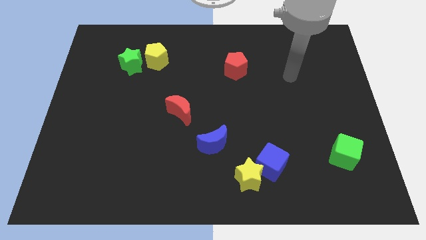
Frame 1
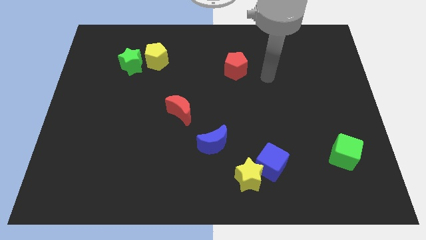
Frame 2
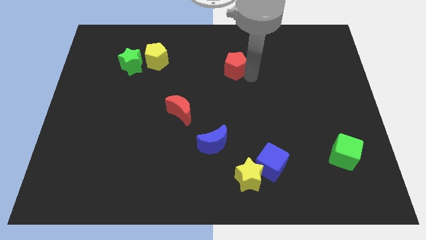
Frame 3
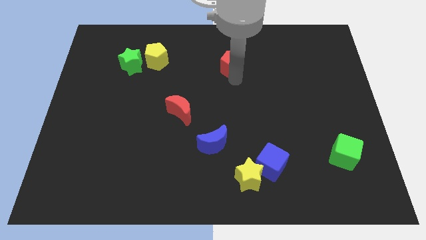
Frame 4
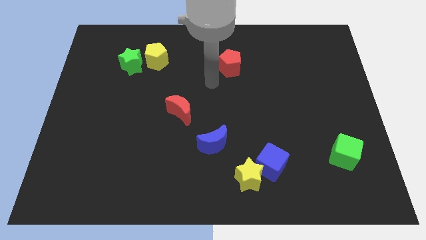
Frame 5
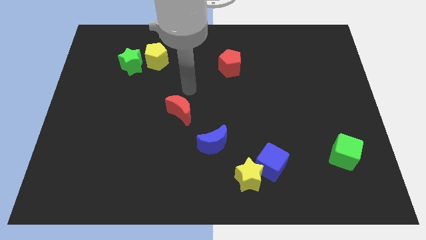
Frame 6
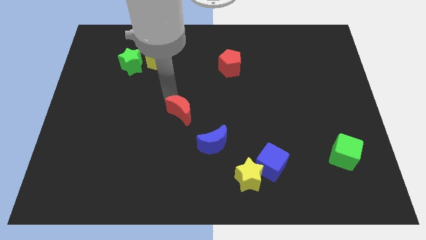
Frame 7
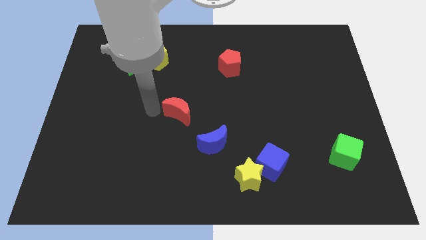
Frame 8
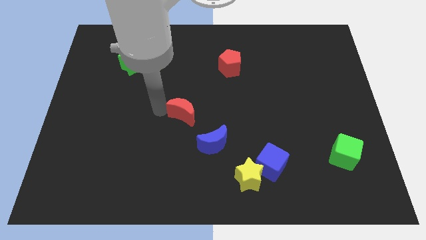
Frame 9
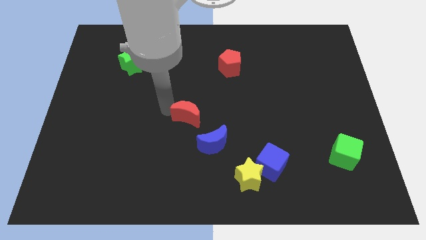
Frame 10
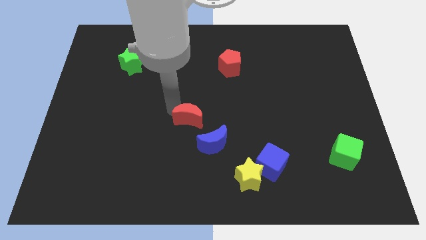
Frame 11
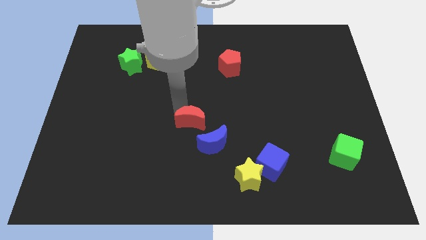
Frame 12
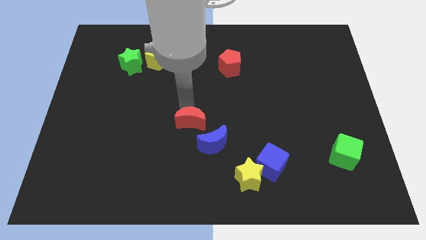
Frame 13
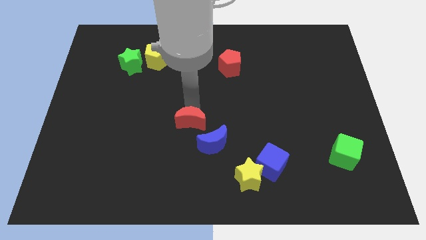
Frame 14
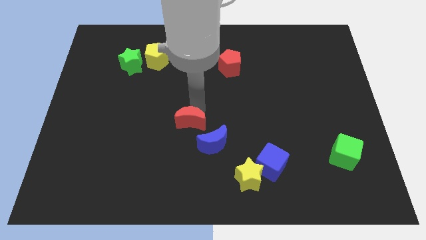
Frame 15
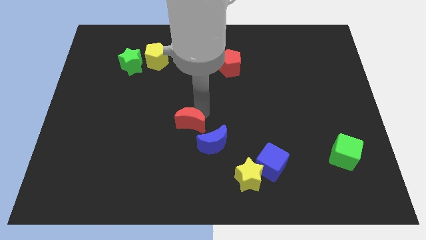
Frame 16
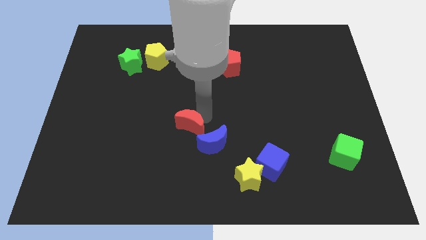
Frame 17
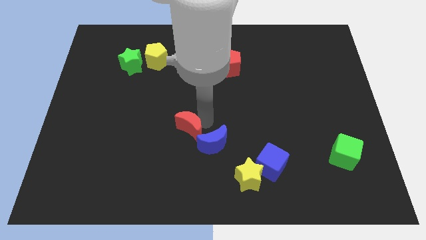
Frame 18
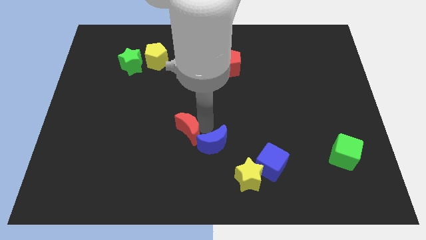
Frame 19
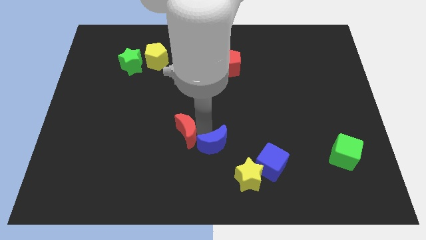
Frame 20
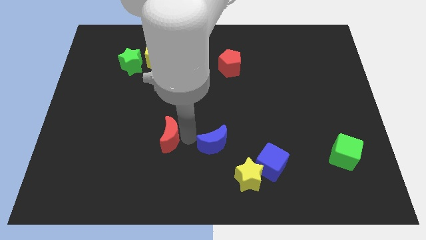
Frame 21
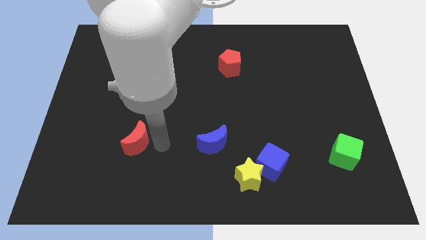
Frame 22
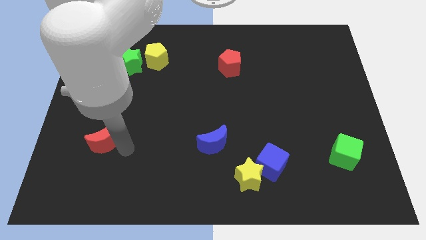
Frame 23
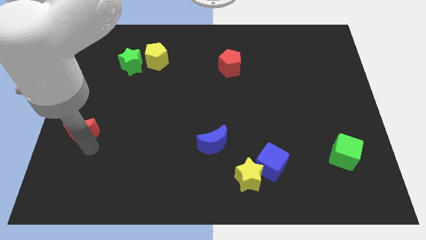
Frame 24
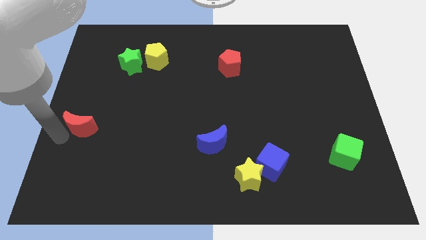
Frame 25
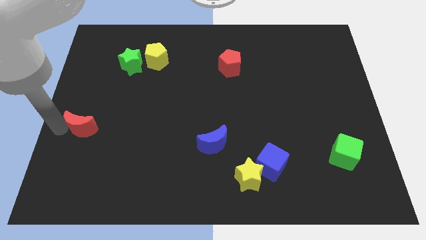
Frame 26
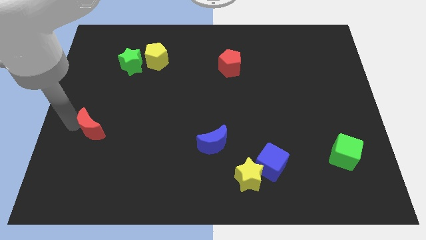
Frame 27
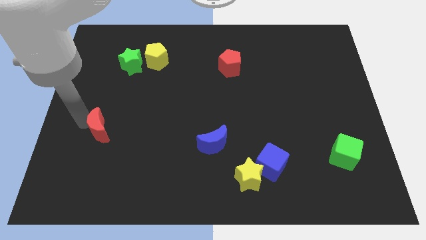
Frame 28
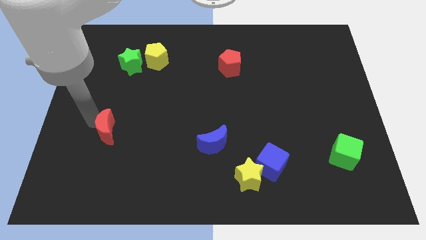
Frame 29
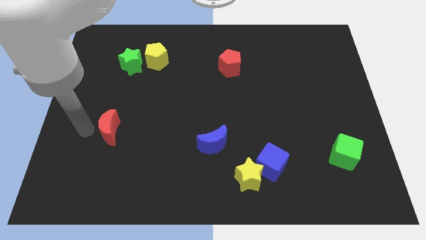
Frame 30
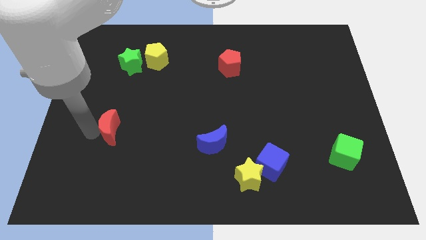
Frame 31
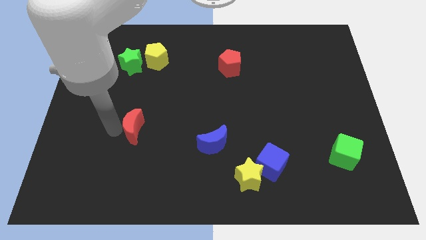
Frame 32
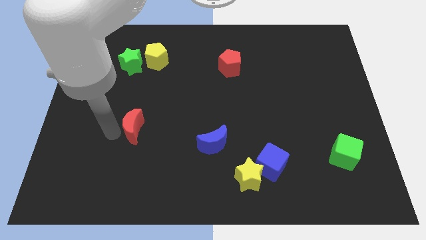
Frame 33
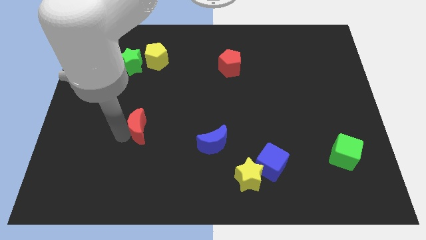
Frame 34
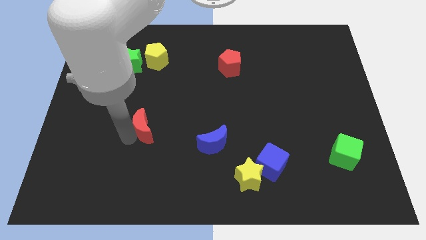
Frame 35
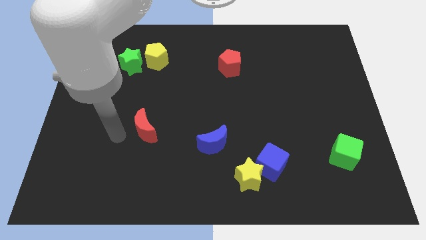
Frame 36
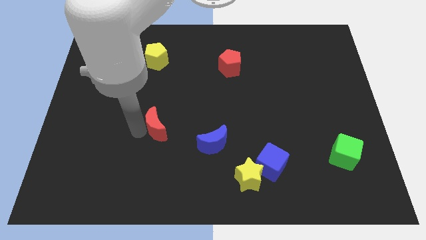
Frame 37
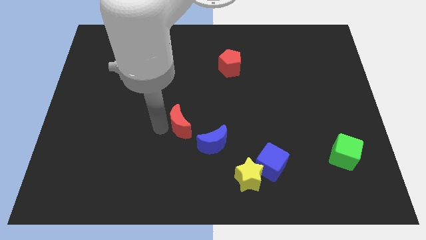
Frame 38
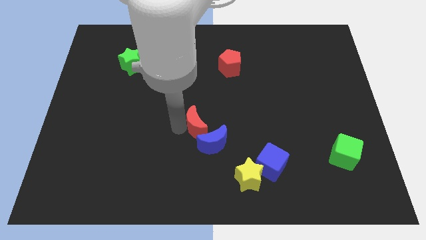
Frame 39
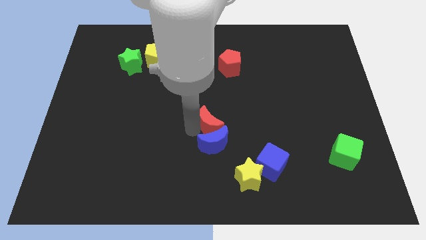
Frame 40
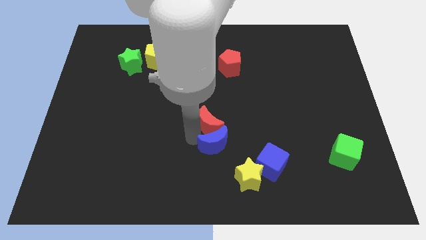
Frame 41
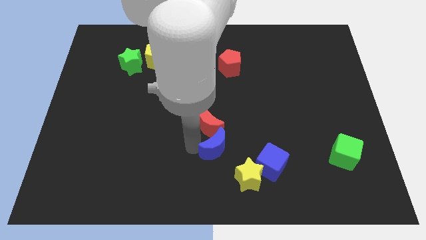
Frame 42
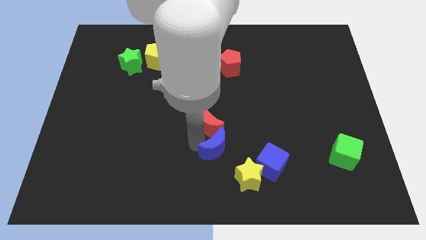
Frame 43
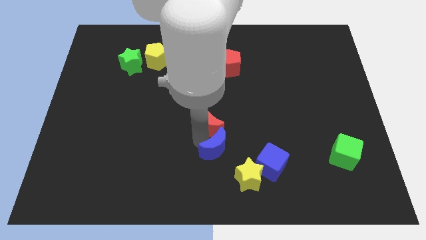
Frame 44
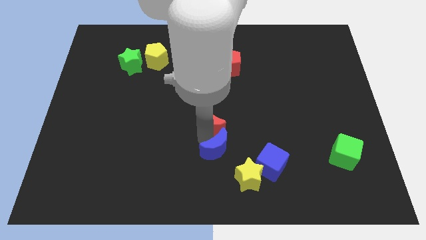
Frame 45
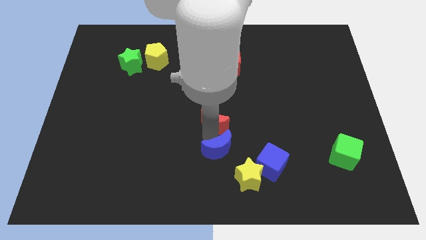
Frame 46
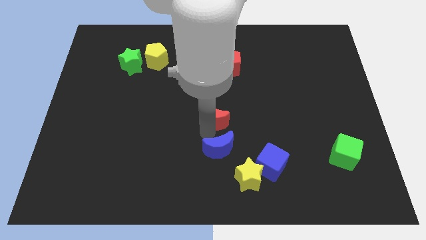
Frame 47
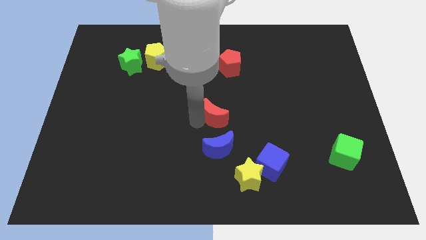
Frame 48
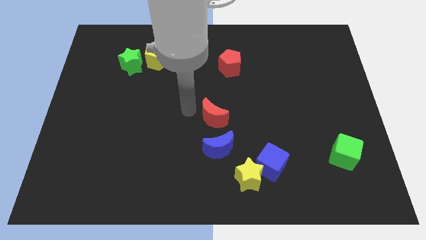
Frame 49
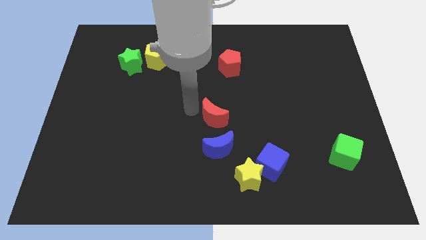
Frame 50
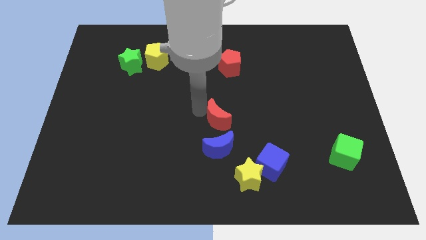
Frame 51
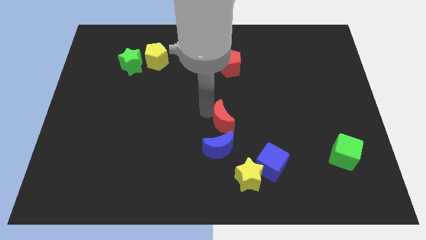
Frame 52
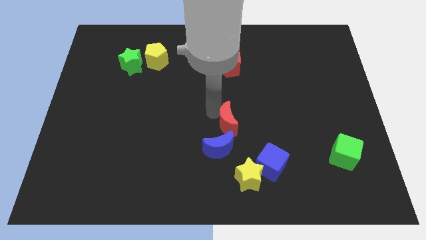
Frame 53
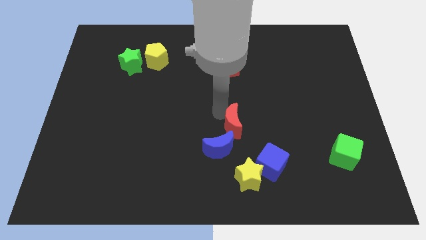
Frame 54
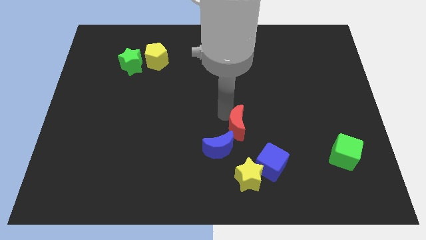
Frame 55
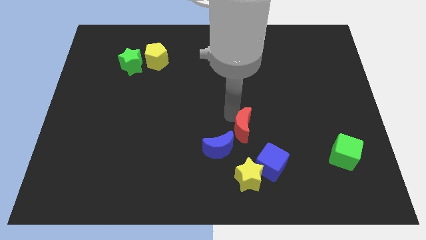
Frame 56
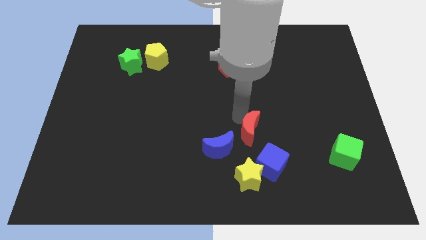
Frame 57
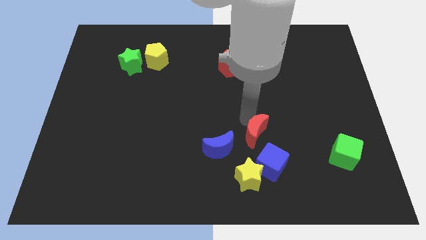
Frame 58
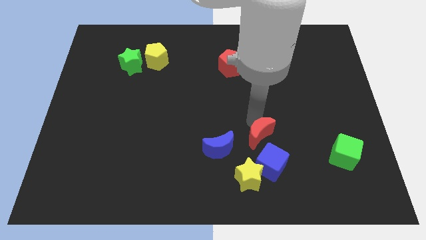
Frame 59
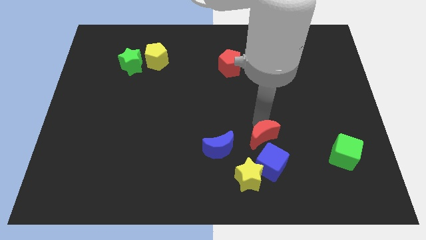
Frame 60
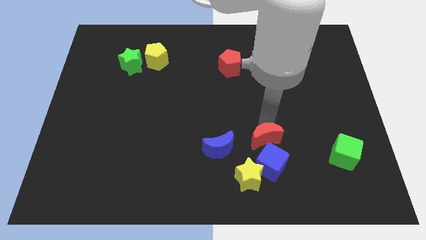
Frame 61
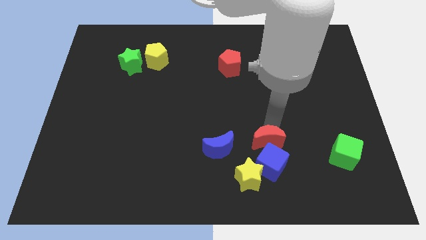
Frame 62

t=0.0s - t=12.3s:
push the red moon to the blue cube

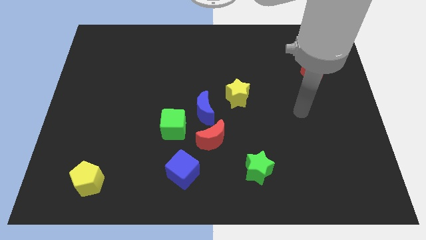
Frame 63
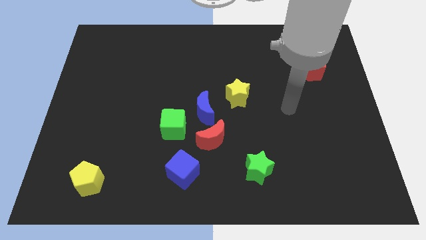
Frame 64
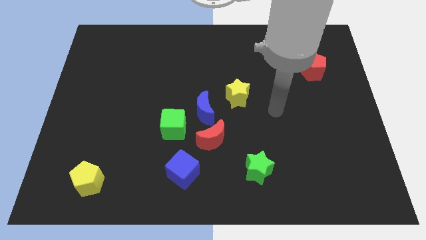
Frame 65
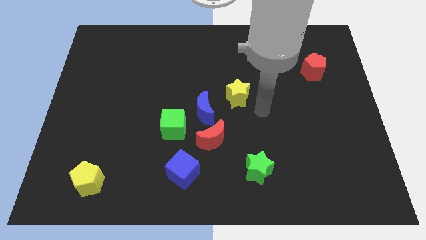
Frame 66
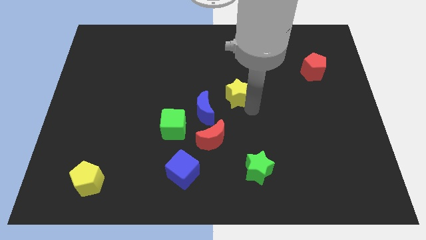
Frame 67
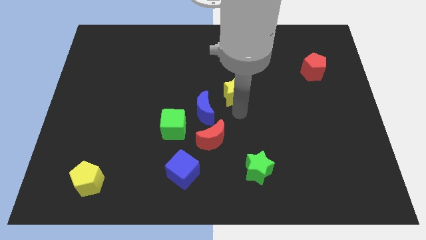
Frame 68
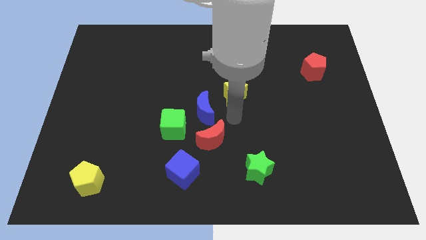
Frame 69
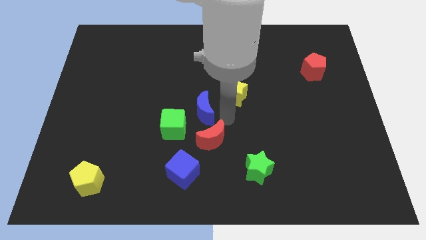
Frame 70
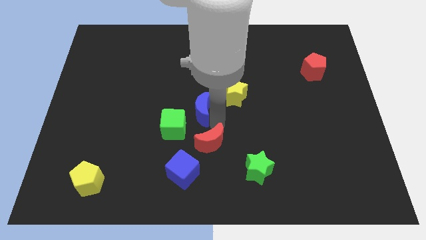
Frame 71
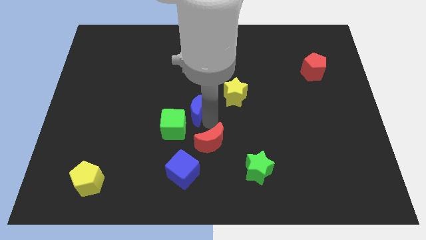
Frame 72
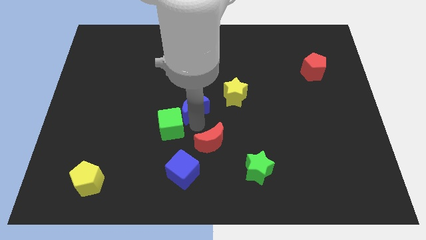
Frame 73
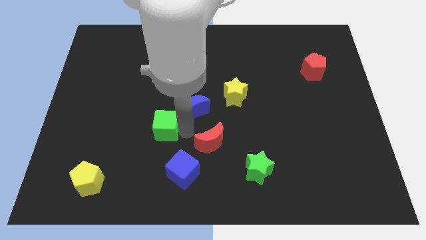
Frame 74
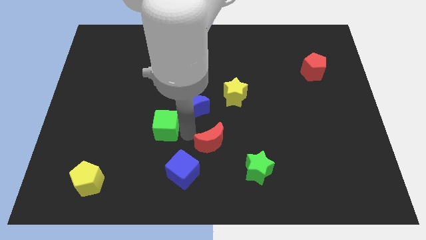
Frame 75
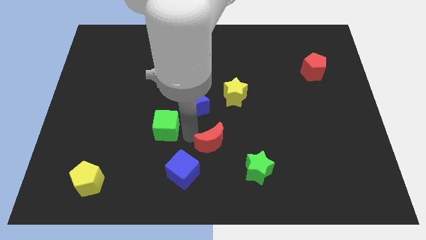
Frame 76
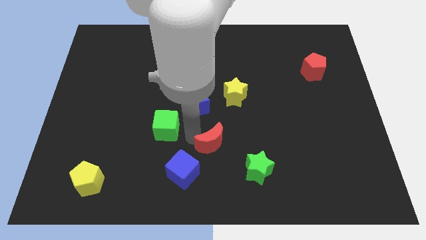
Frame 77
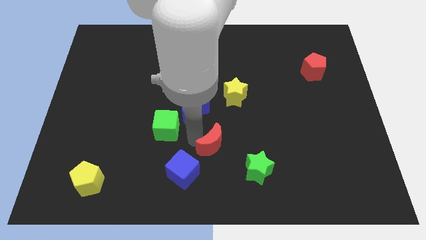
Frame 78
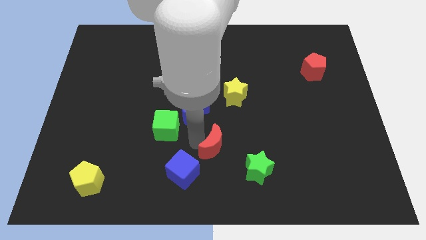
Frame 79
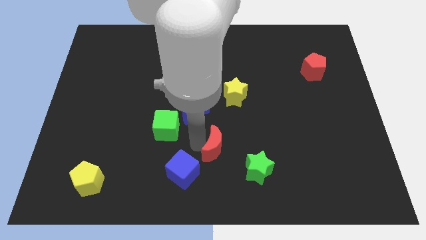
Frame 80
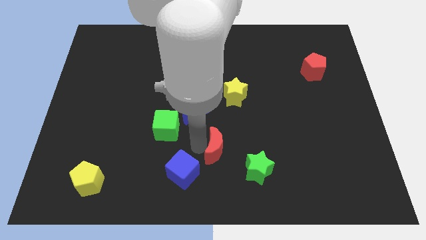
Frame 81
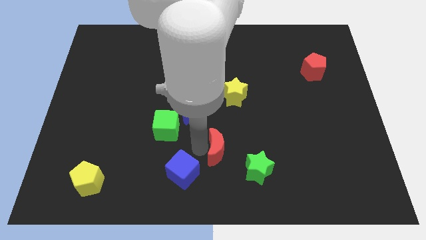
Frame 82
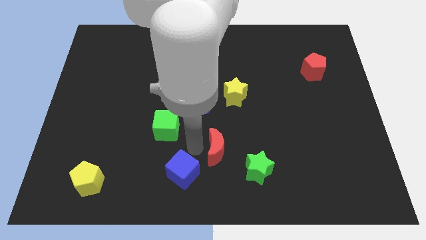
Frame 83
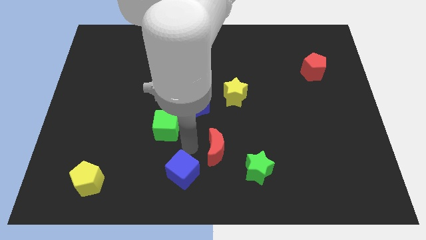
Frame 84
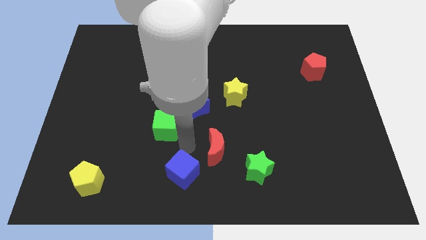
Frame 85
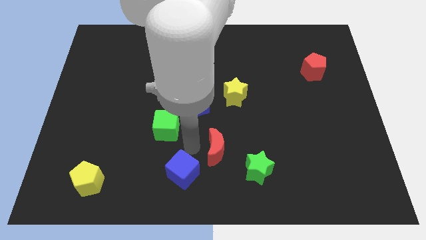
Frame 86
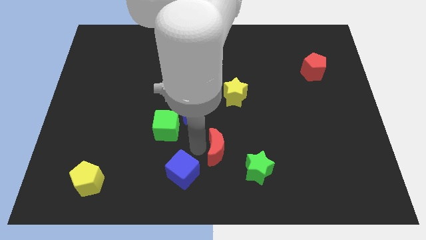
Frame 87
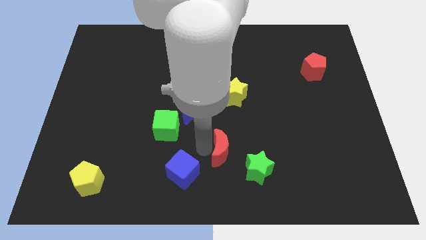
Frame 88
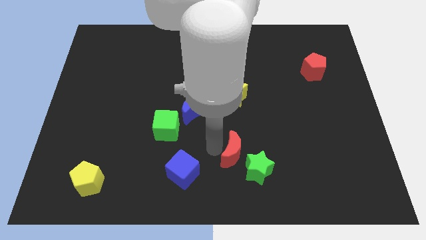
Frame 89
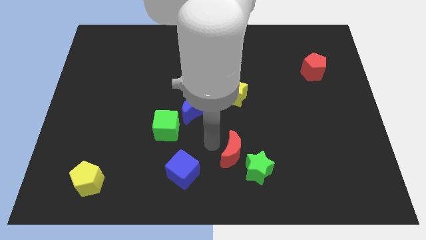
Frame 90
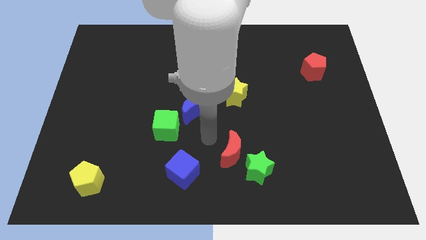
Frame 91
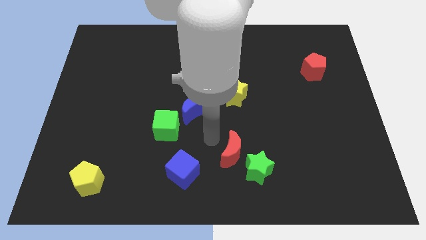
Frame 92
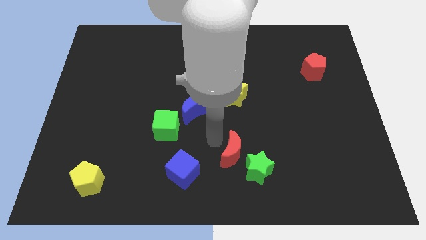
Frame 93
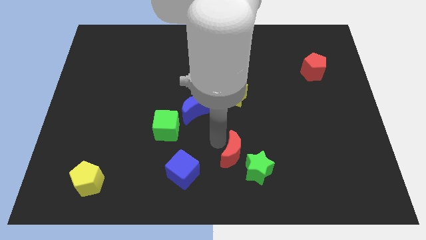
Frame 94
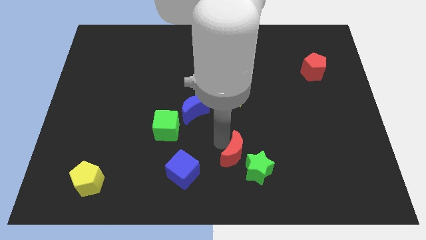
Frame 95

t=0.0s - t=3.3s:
move the red moon close to the green star
